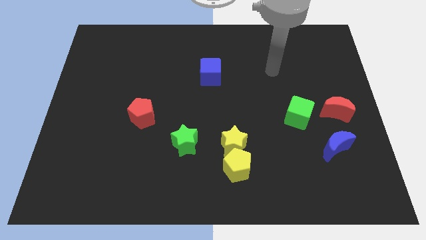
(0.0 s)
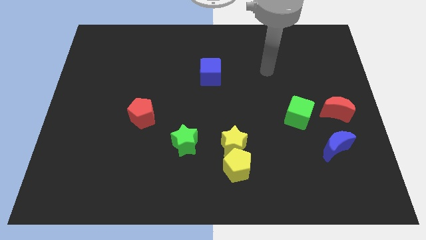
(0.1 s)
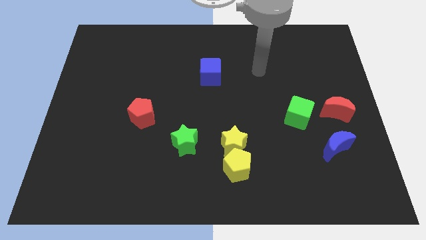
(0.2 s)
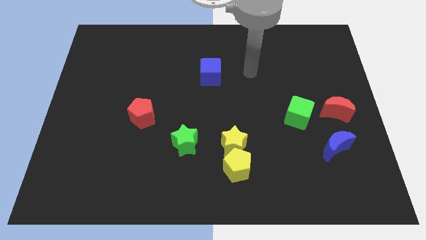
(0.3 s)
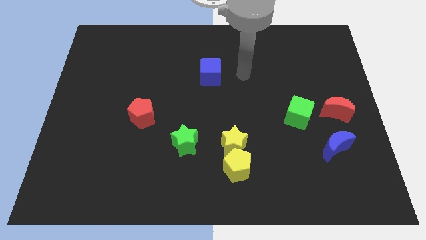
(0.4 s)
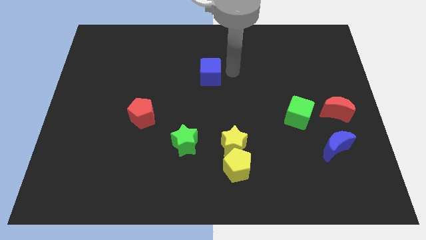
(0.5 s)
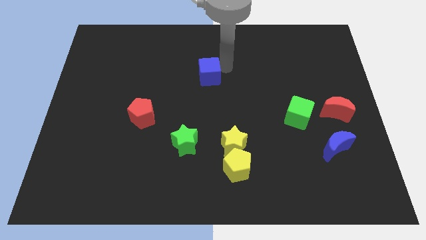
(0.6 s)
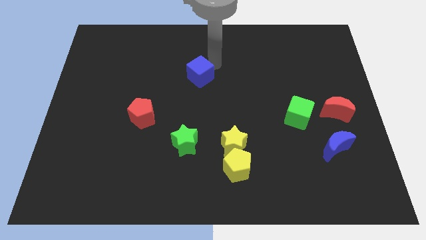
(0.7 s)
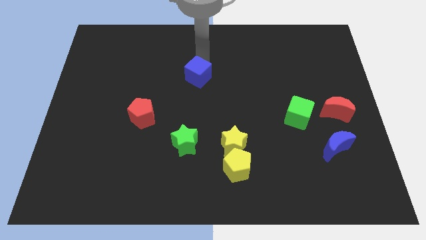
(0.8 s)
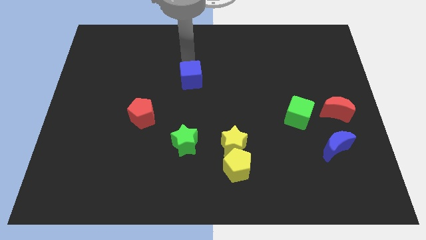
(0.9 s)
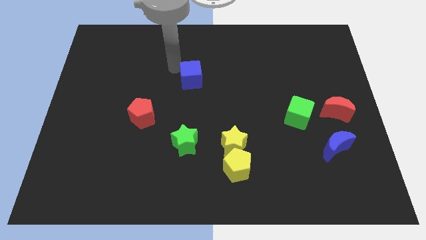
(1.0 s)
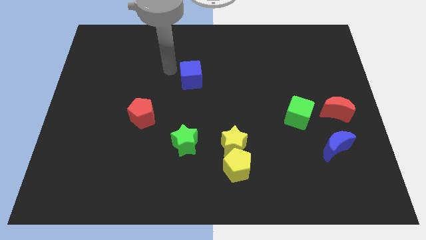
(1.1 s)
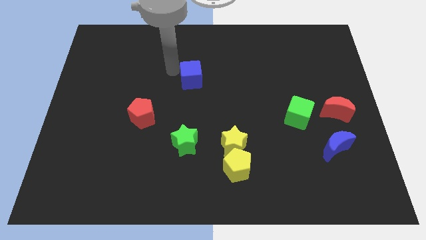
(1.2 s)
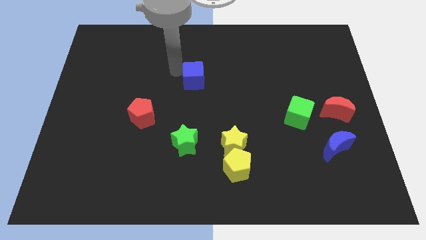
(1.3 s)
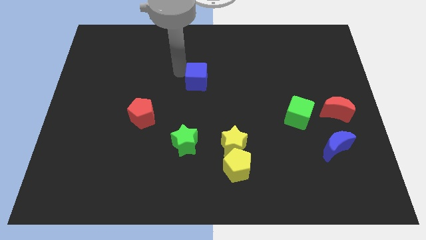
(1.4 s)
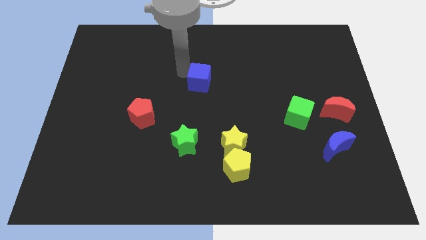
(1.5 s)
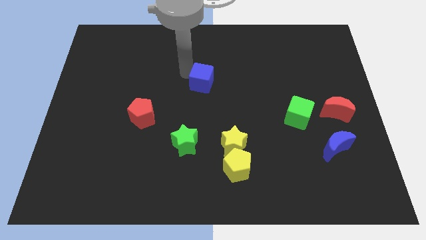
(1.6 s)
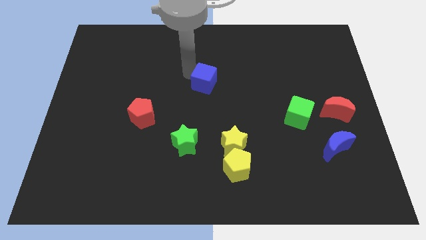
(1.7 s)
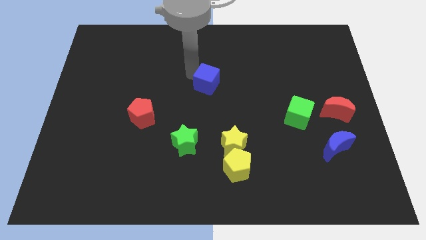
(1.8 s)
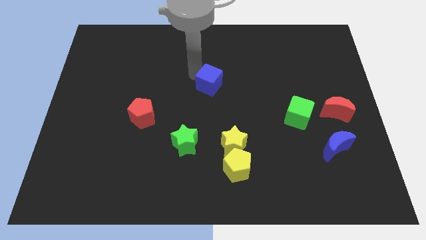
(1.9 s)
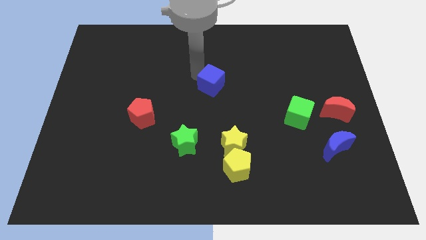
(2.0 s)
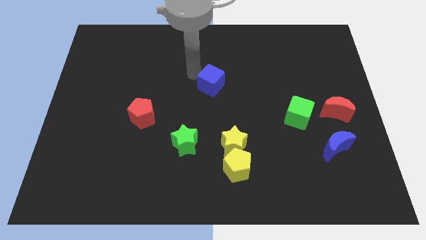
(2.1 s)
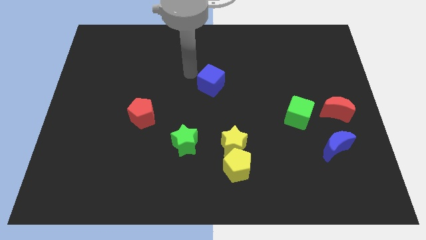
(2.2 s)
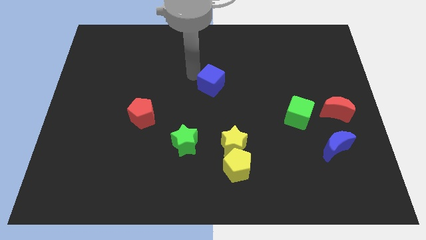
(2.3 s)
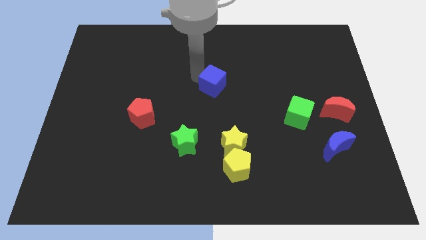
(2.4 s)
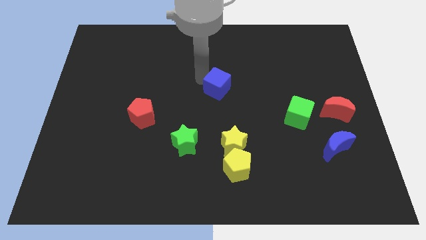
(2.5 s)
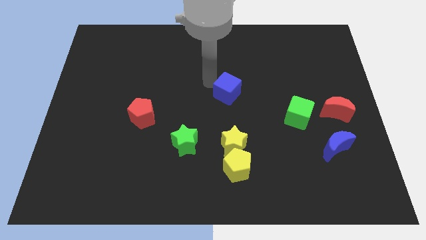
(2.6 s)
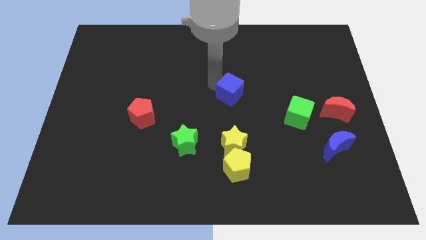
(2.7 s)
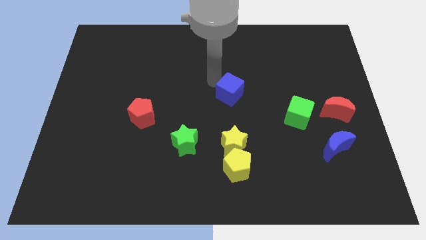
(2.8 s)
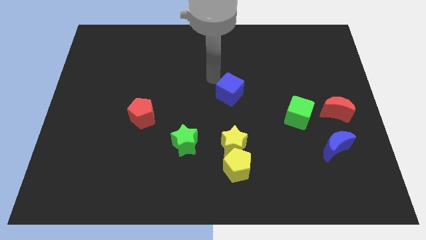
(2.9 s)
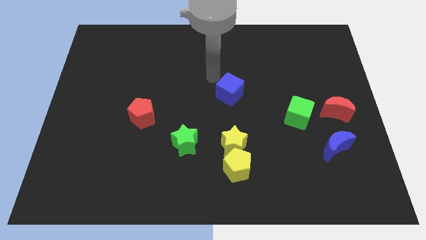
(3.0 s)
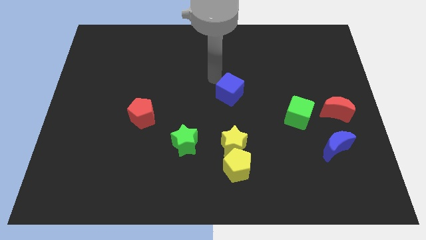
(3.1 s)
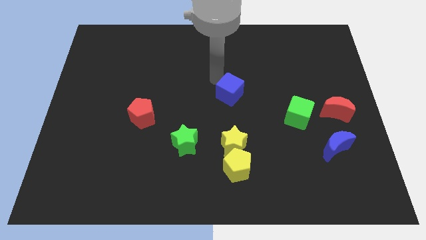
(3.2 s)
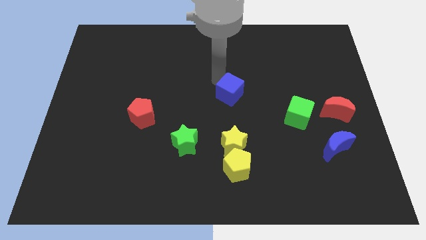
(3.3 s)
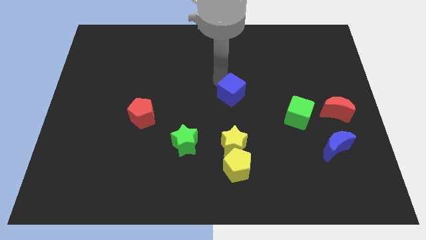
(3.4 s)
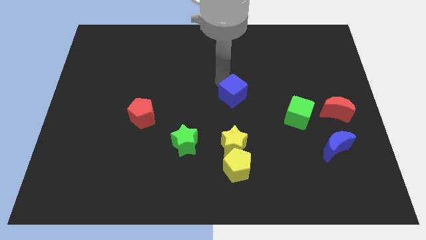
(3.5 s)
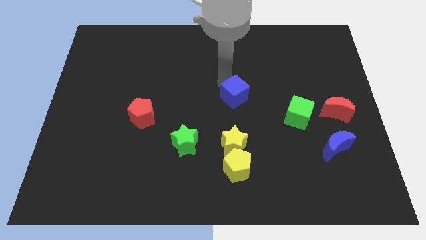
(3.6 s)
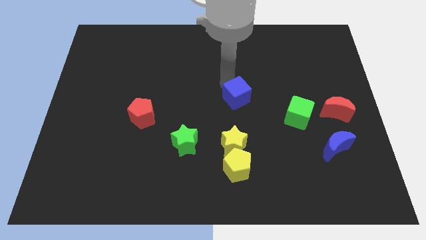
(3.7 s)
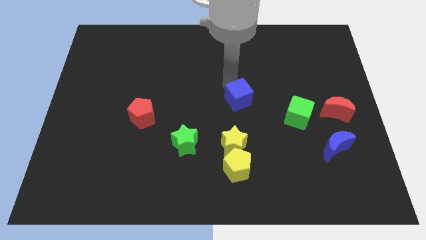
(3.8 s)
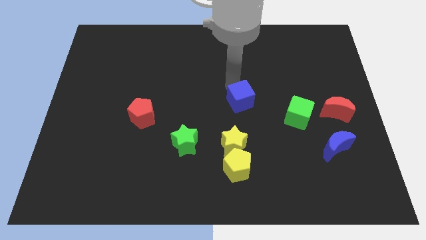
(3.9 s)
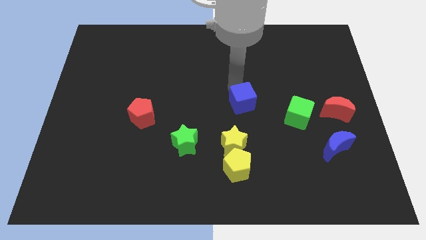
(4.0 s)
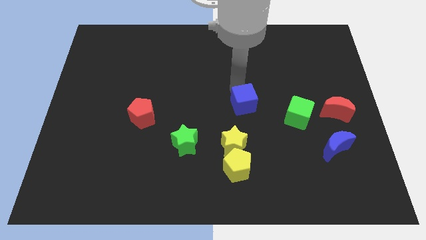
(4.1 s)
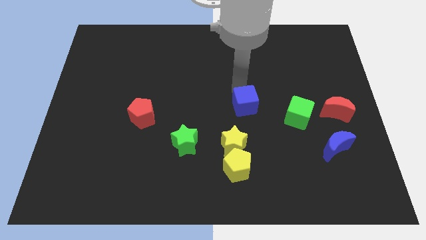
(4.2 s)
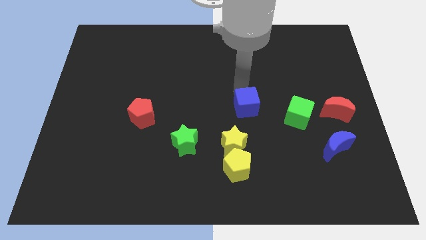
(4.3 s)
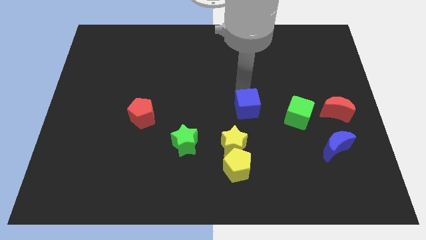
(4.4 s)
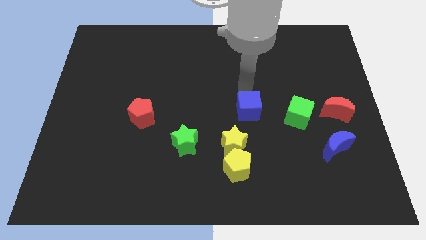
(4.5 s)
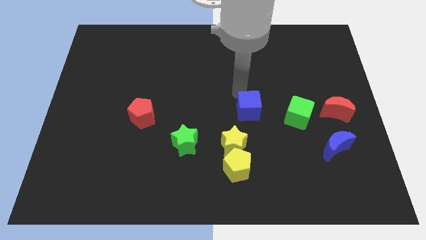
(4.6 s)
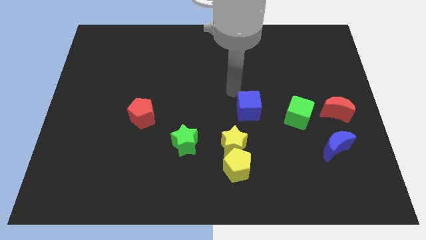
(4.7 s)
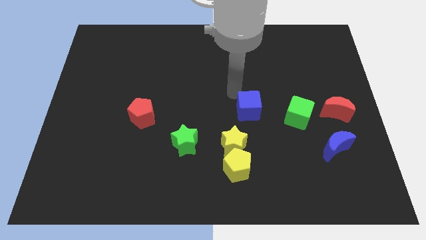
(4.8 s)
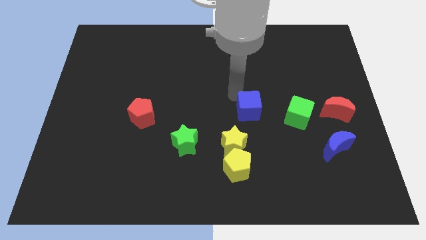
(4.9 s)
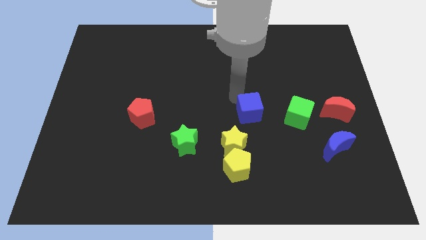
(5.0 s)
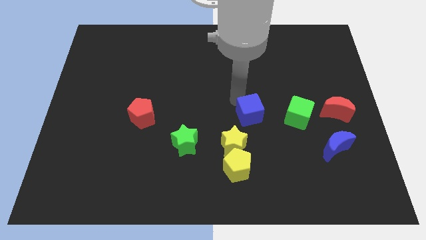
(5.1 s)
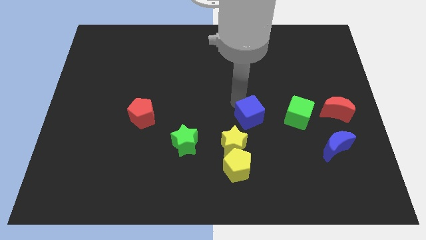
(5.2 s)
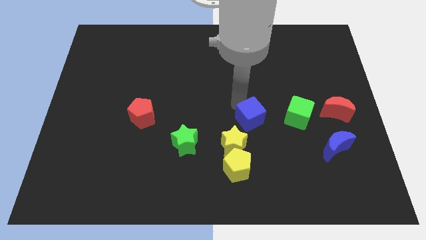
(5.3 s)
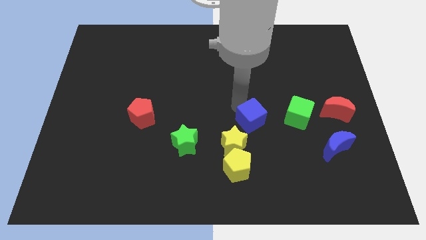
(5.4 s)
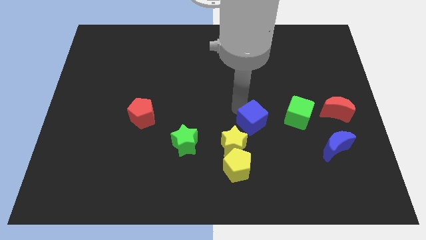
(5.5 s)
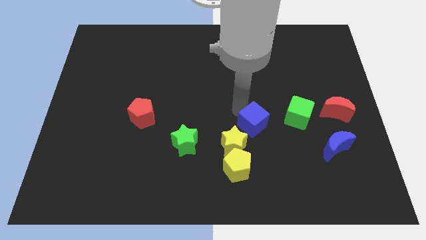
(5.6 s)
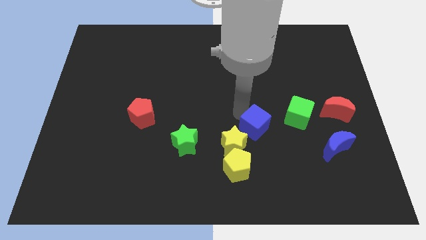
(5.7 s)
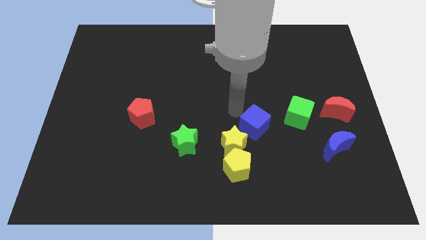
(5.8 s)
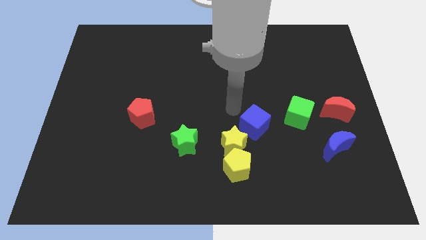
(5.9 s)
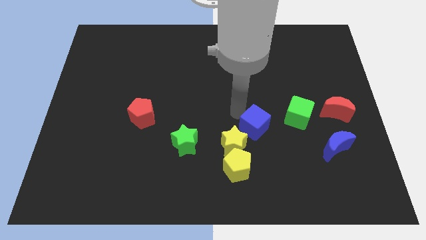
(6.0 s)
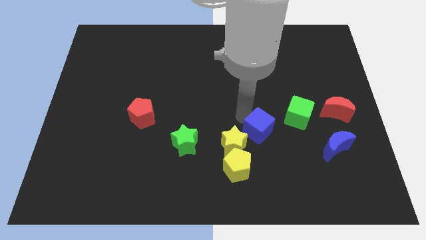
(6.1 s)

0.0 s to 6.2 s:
push the blue cube just right of the yellow star

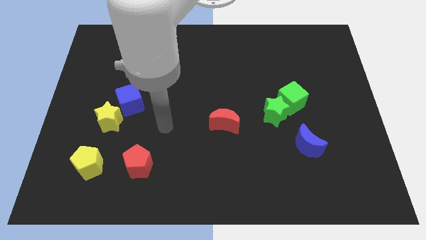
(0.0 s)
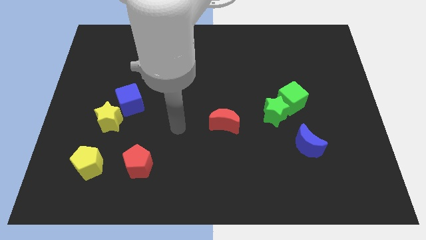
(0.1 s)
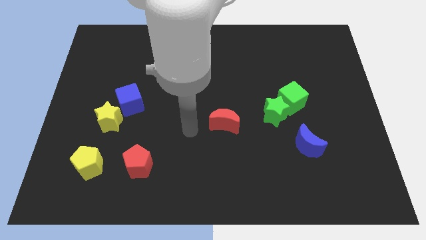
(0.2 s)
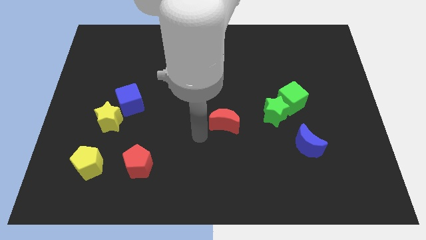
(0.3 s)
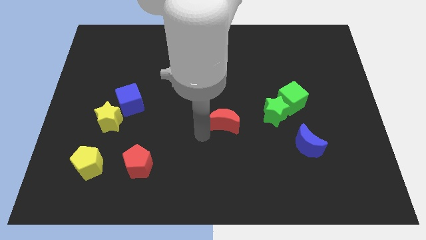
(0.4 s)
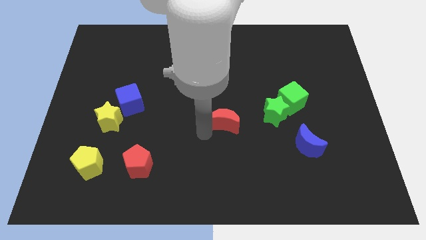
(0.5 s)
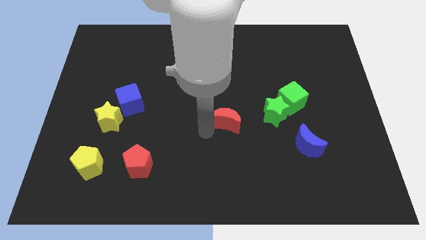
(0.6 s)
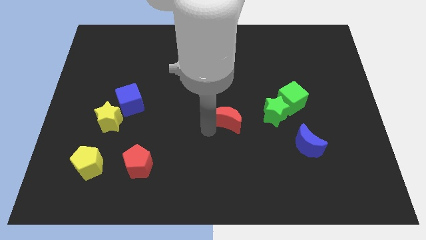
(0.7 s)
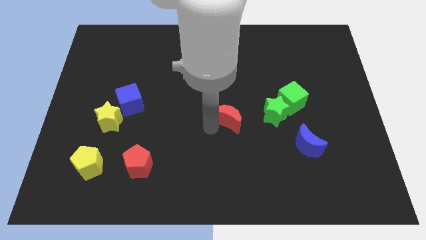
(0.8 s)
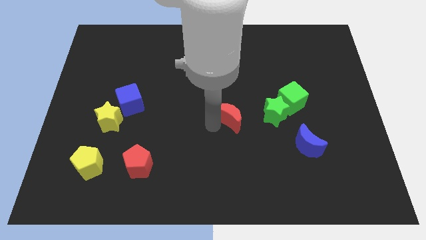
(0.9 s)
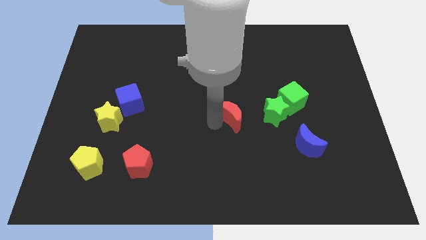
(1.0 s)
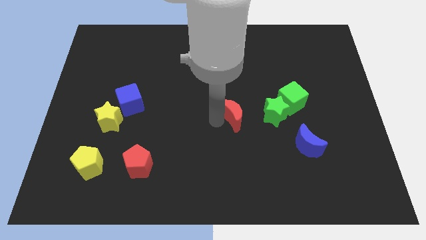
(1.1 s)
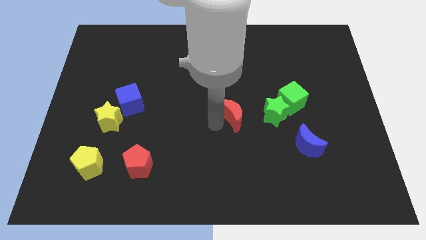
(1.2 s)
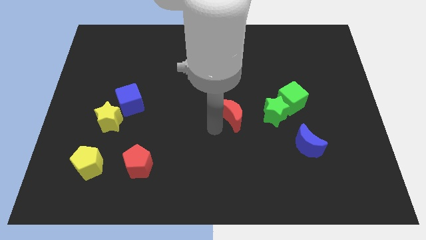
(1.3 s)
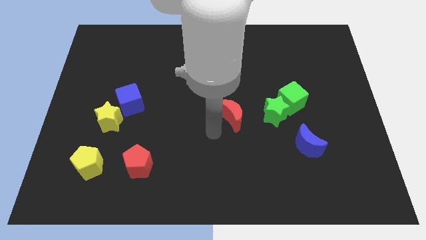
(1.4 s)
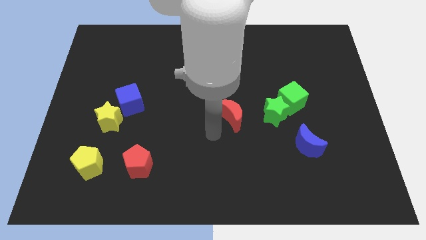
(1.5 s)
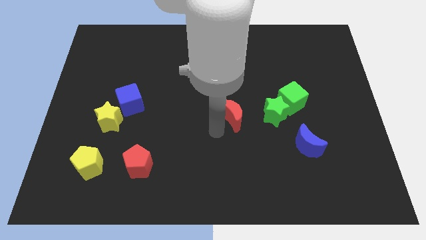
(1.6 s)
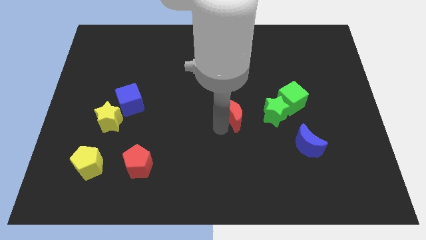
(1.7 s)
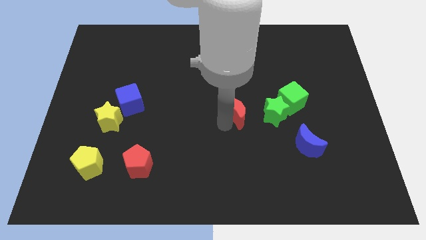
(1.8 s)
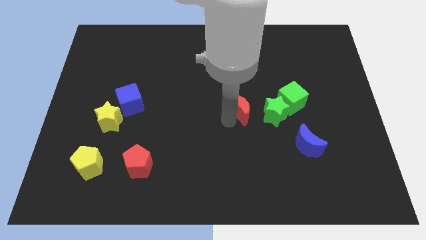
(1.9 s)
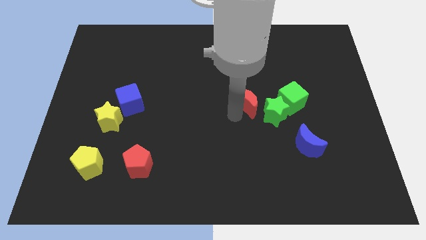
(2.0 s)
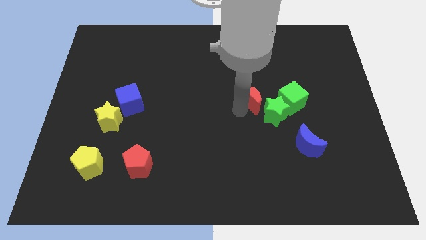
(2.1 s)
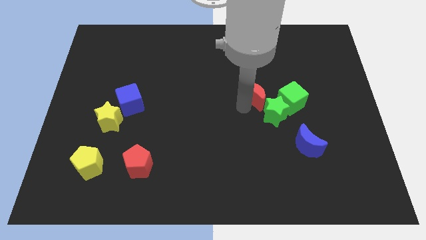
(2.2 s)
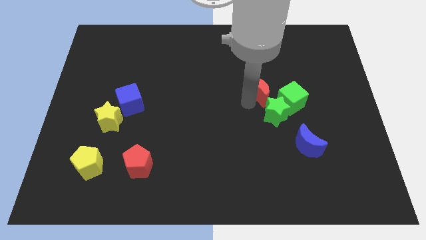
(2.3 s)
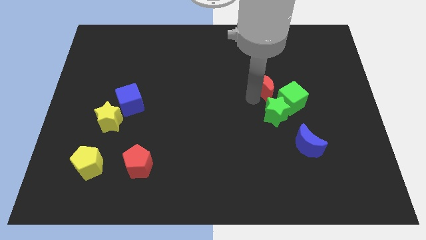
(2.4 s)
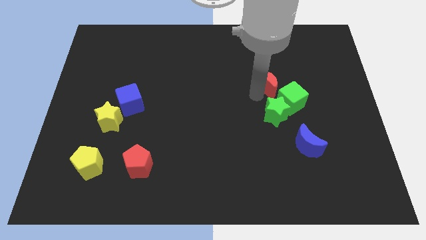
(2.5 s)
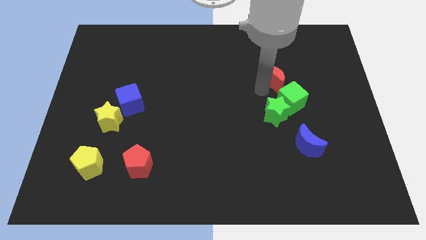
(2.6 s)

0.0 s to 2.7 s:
slide the red moon to the top side of the green cube
